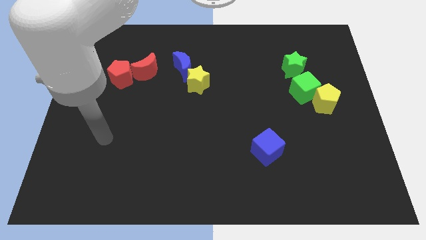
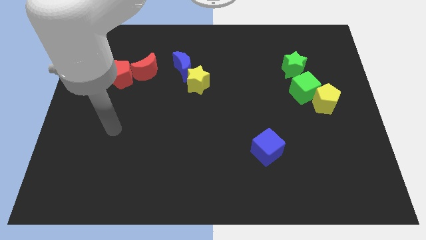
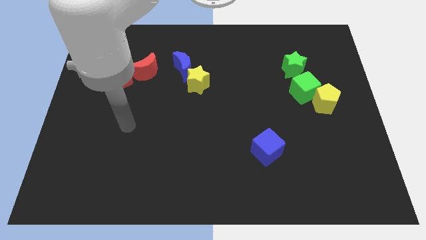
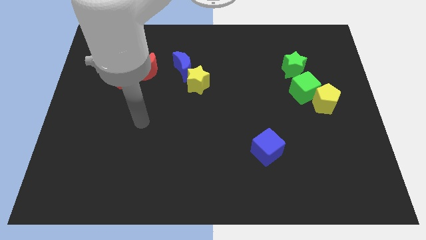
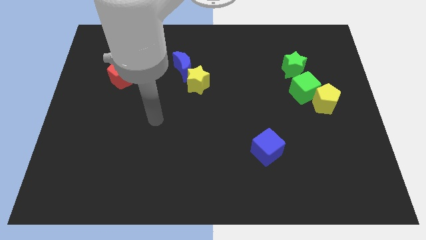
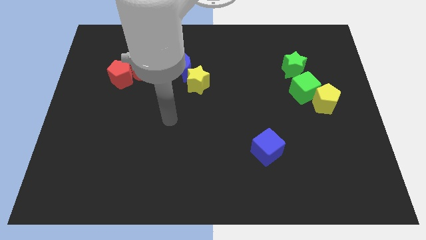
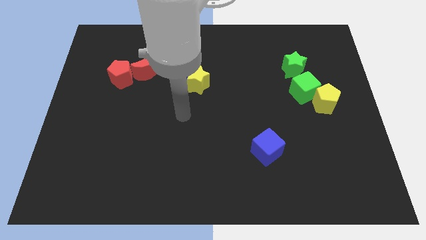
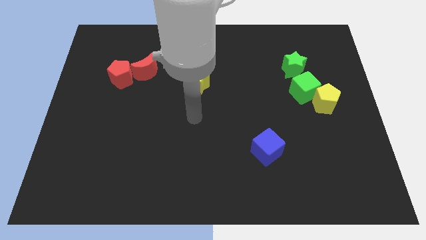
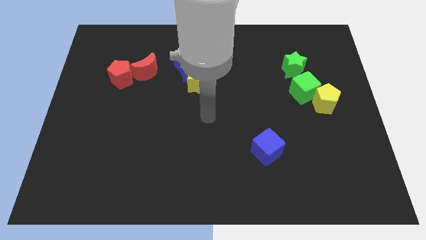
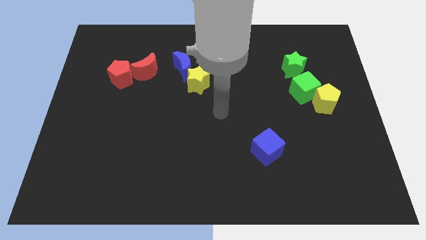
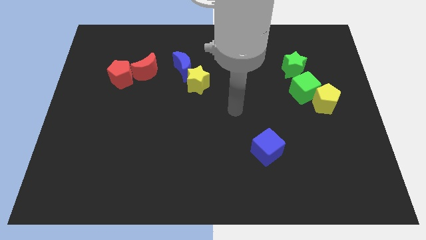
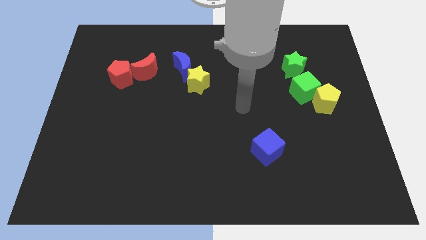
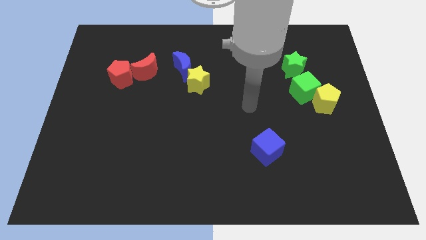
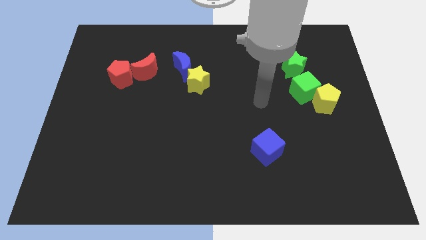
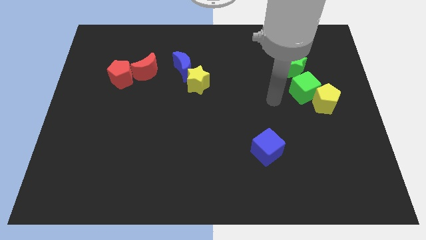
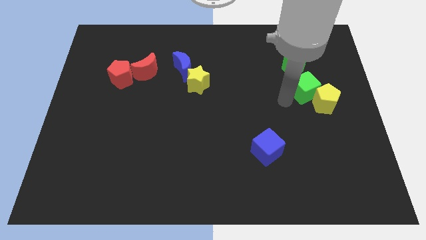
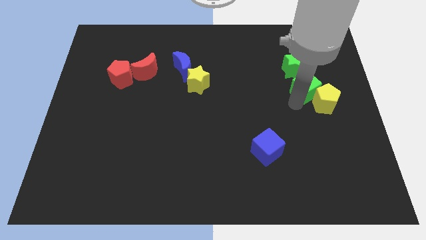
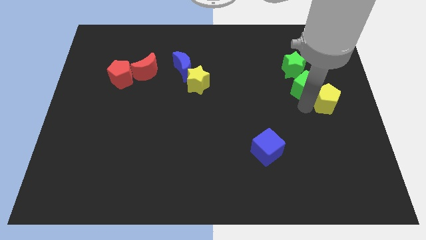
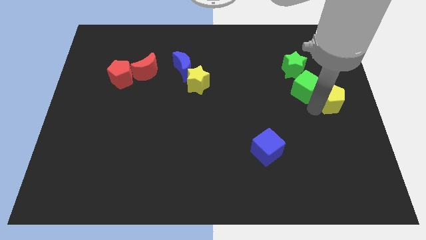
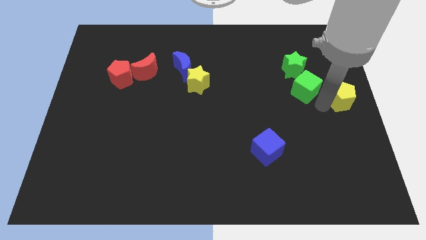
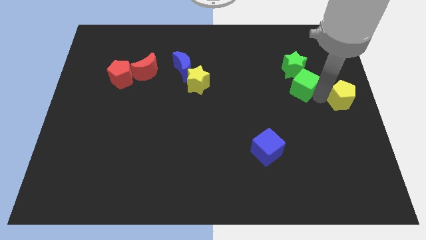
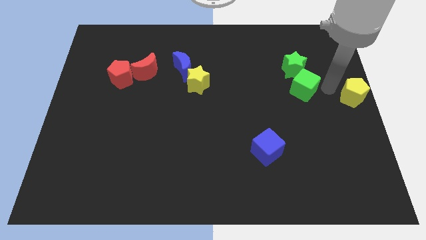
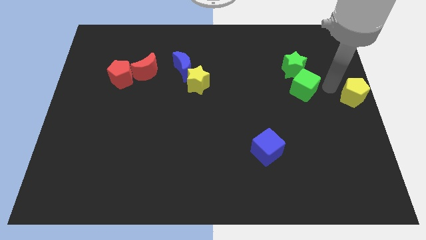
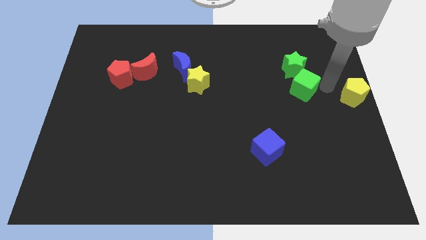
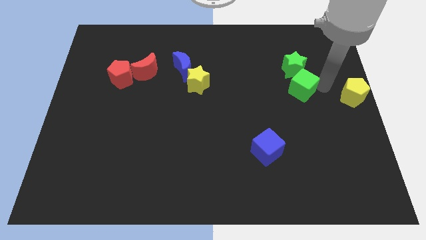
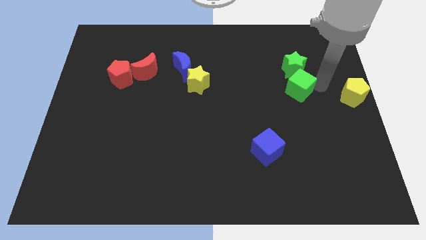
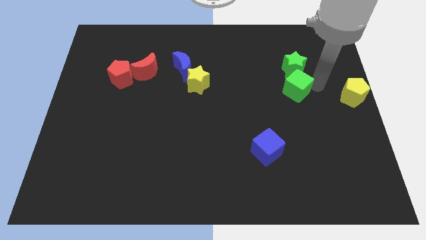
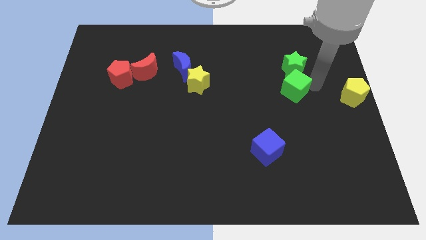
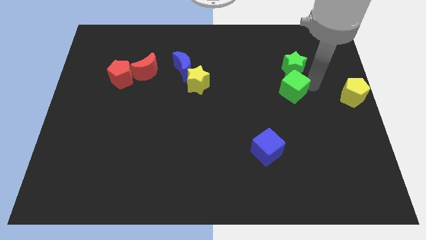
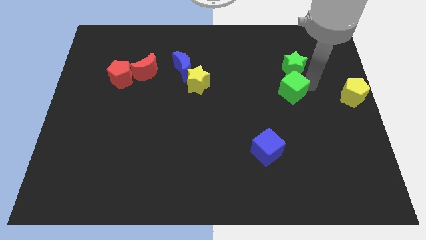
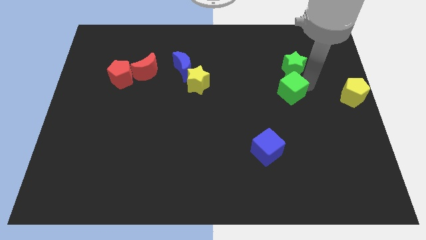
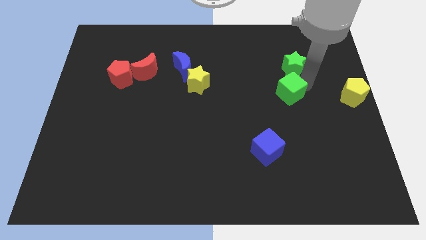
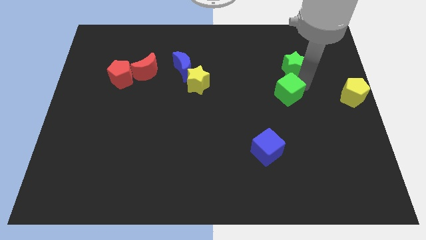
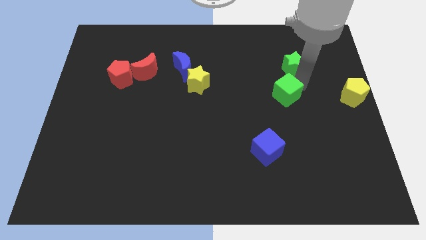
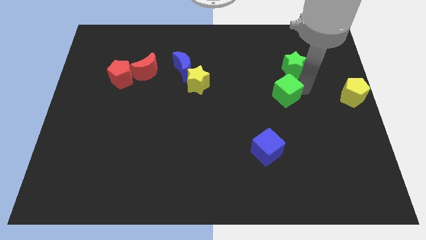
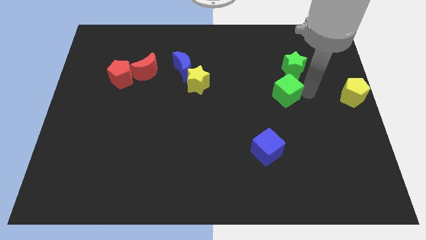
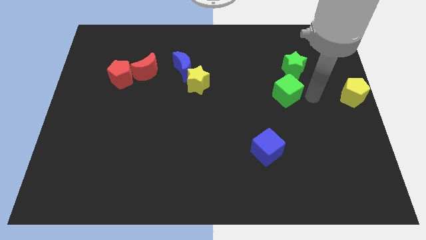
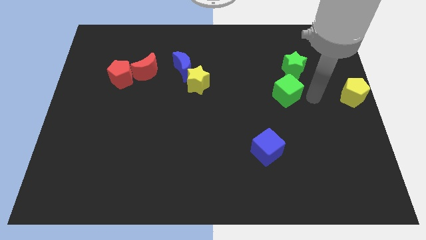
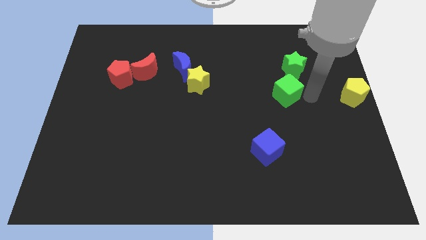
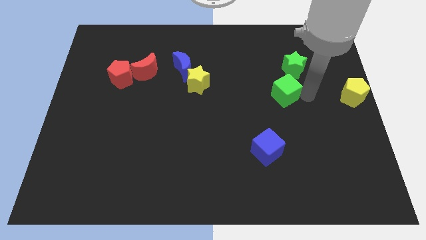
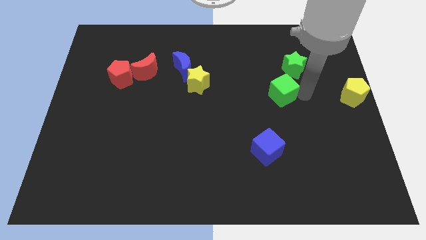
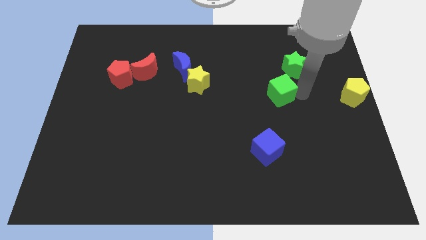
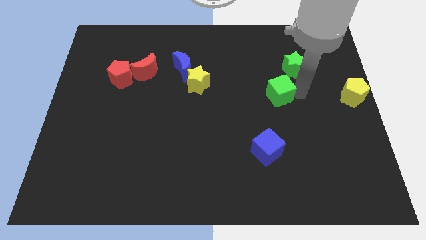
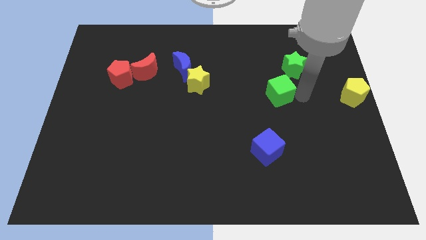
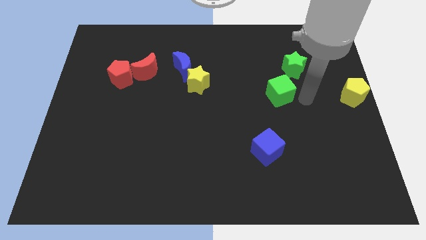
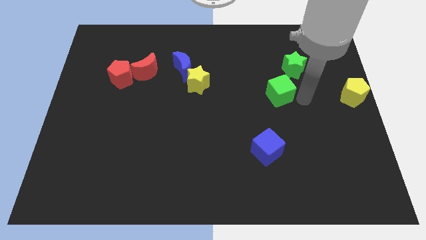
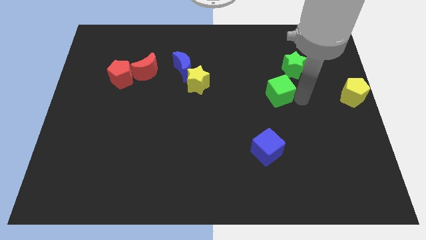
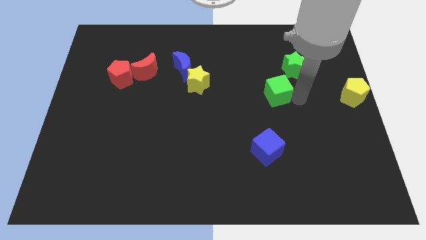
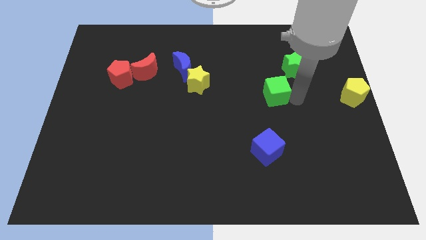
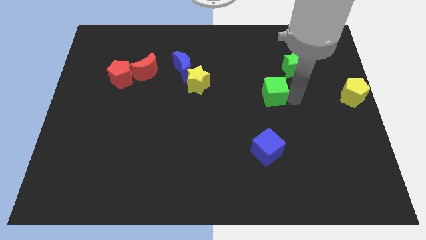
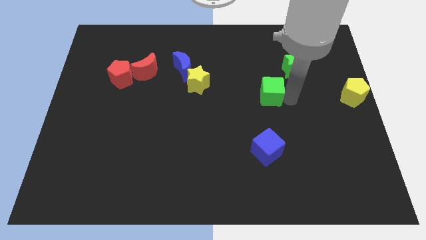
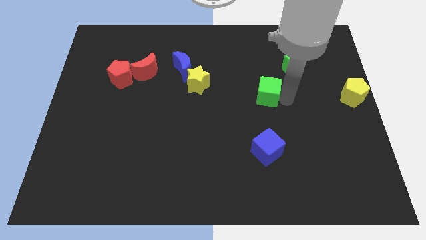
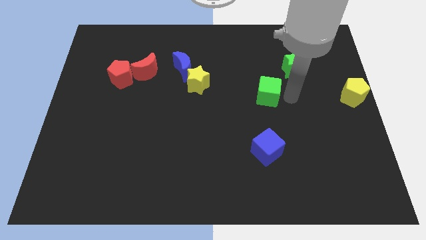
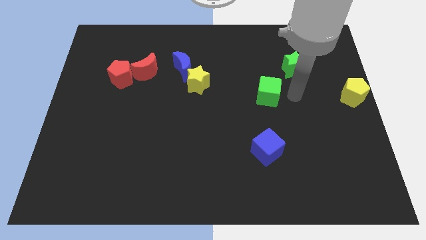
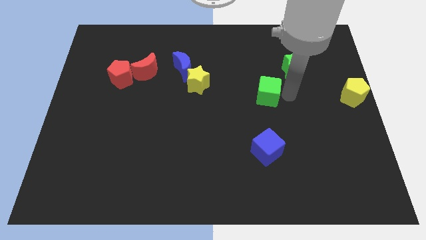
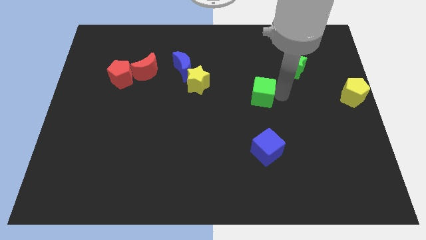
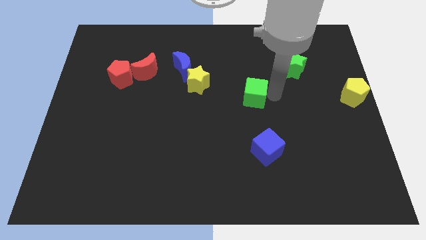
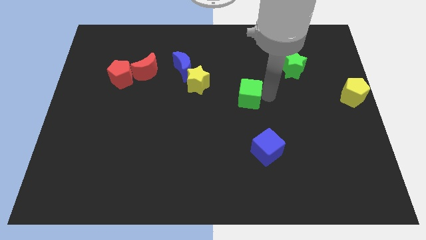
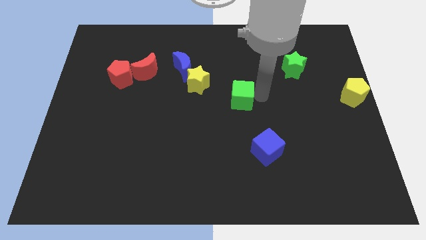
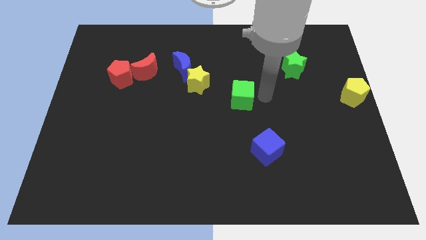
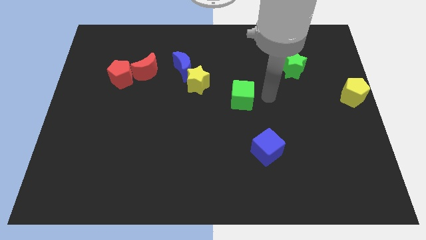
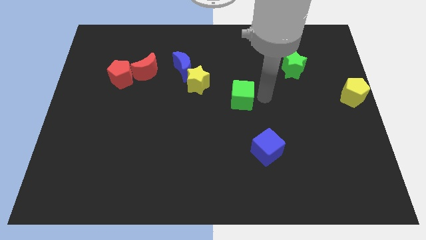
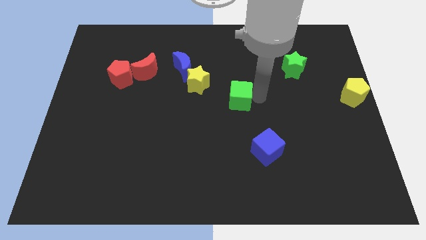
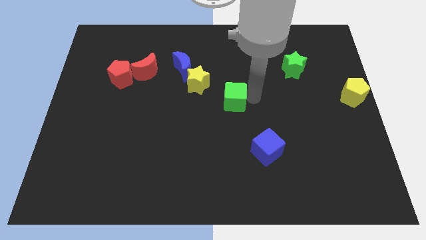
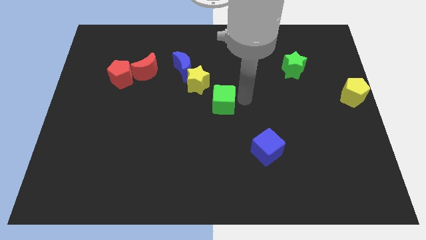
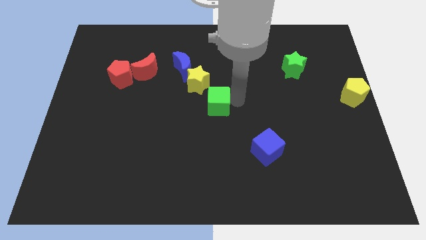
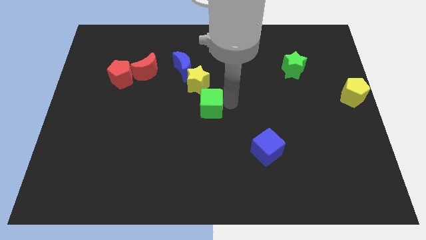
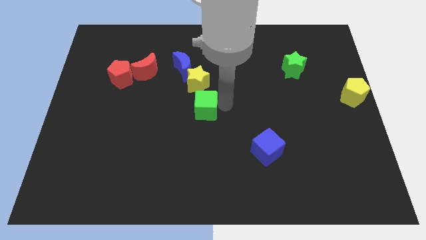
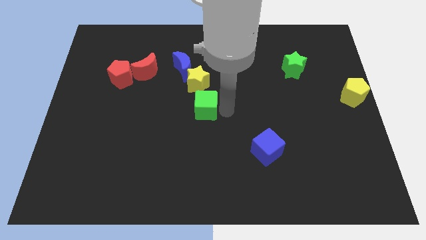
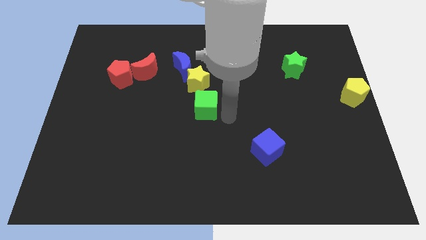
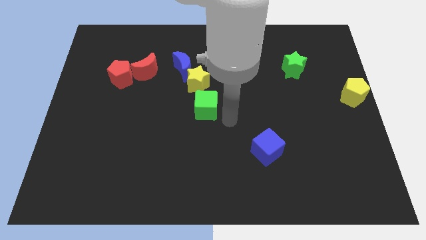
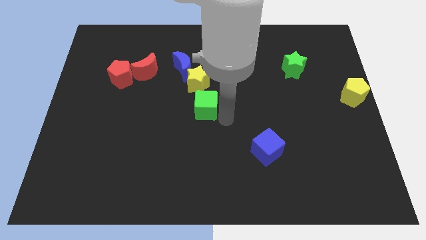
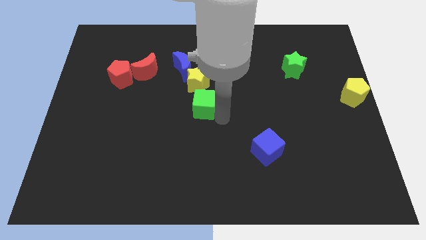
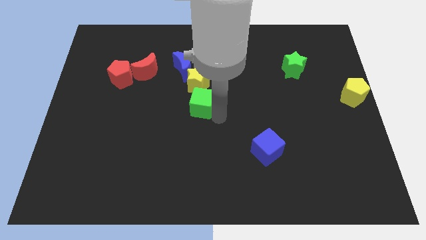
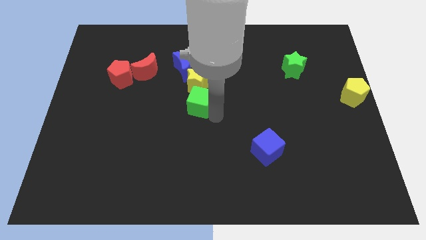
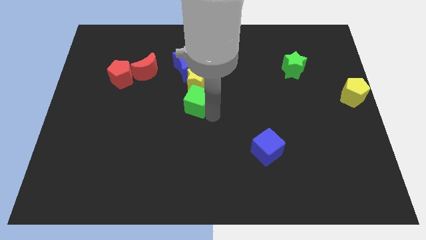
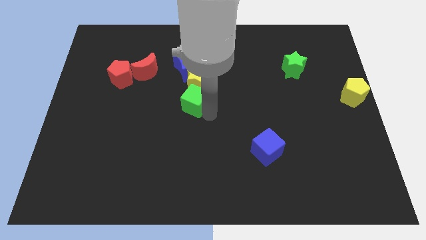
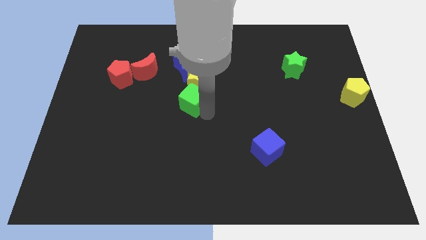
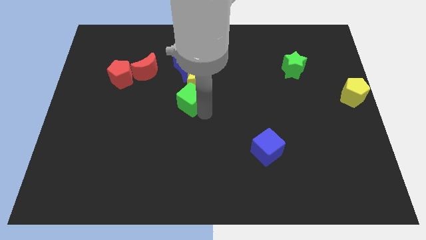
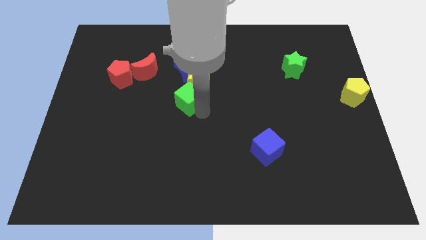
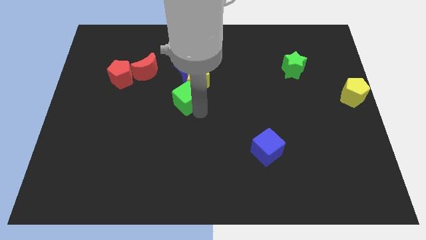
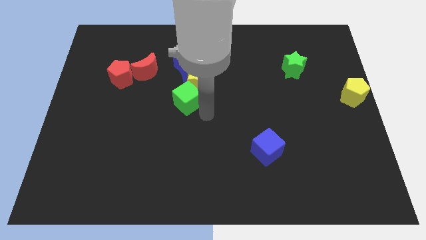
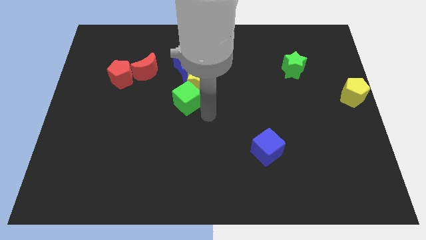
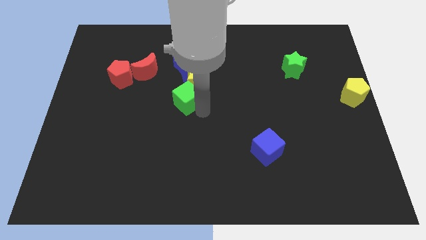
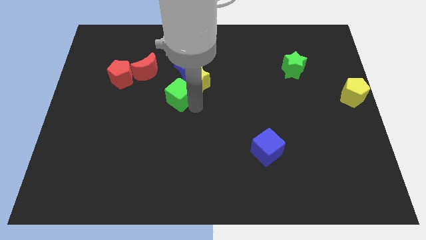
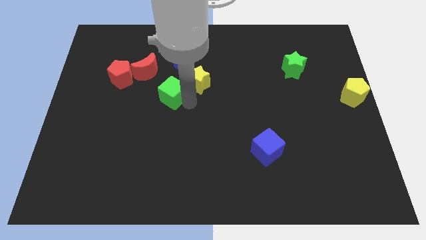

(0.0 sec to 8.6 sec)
put the green cube diagonally down and to the left of the blue moon
